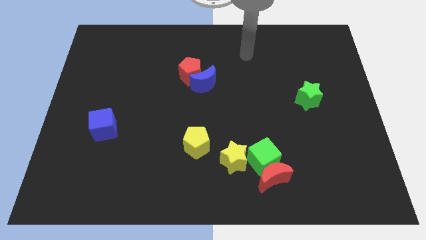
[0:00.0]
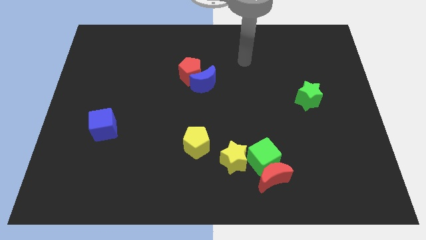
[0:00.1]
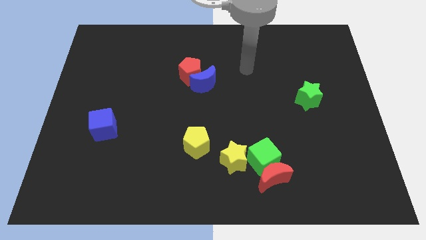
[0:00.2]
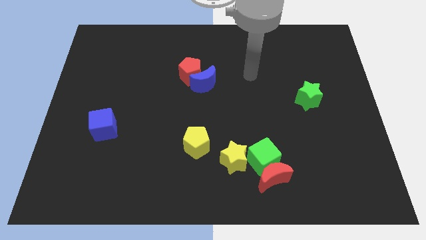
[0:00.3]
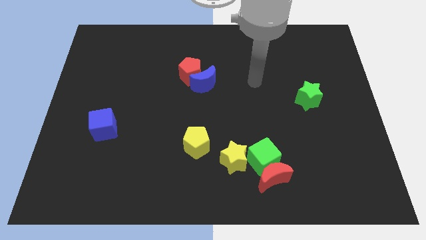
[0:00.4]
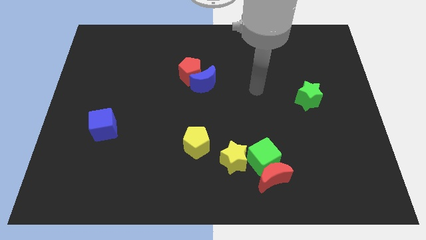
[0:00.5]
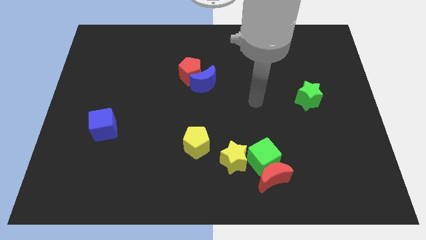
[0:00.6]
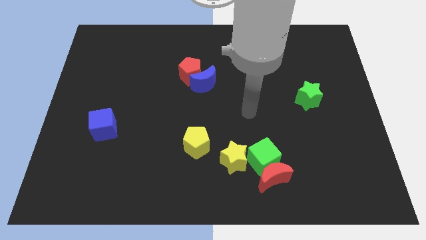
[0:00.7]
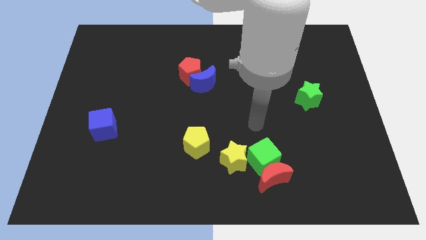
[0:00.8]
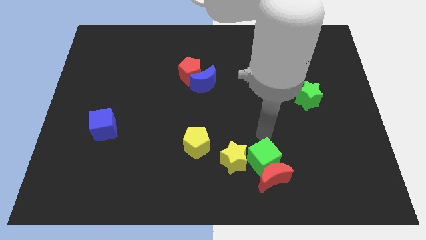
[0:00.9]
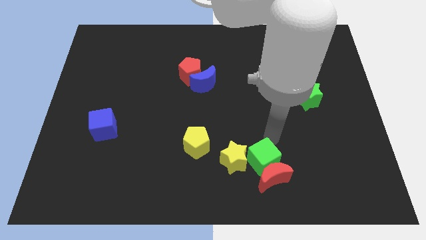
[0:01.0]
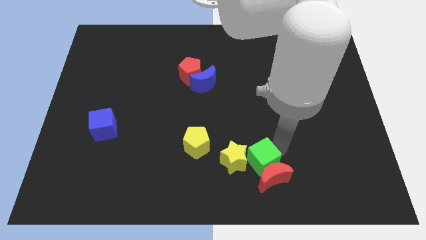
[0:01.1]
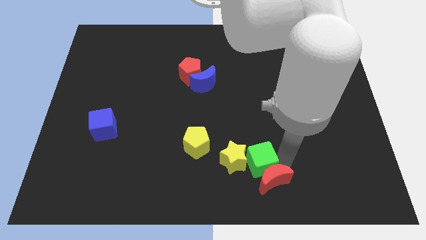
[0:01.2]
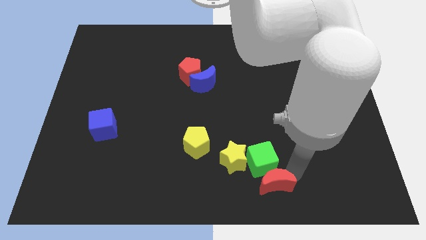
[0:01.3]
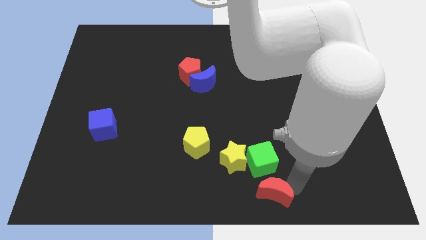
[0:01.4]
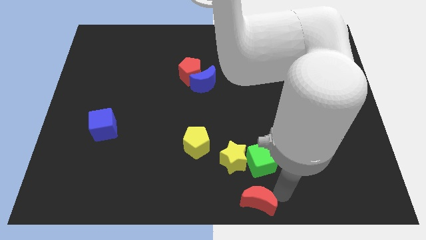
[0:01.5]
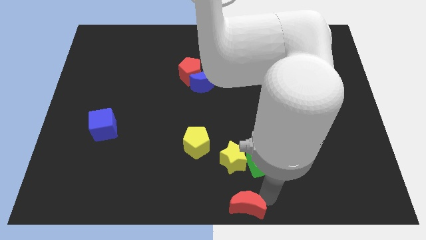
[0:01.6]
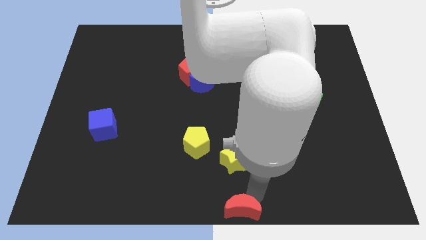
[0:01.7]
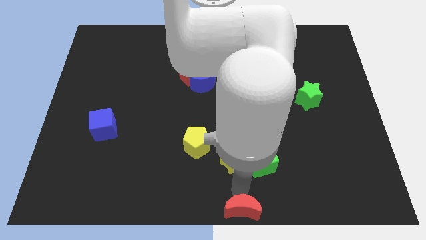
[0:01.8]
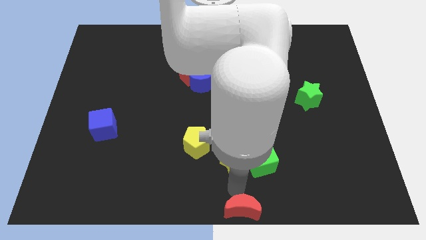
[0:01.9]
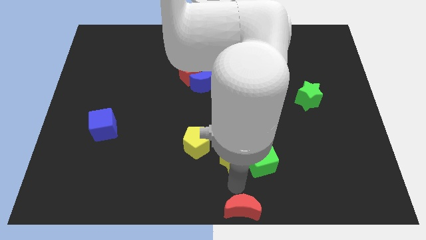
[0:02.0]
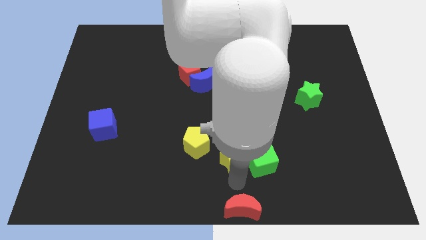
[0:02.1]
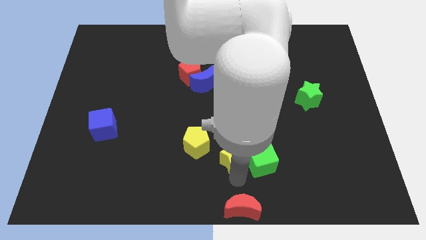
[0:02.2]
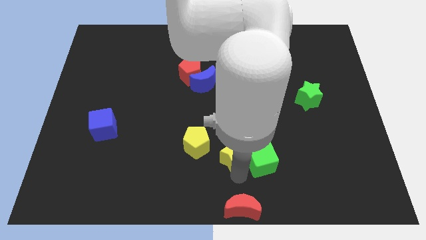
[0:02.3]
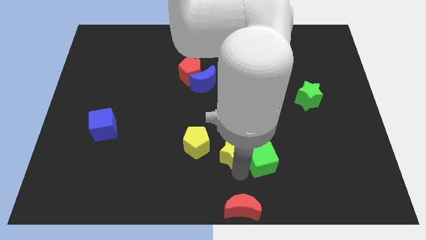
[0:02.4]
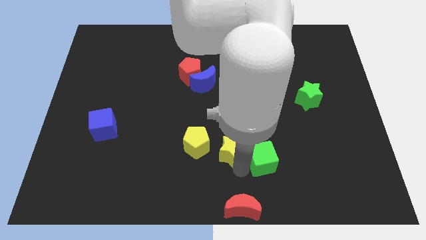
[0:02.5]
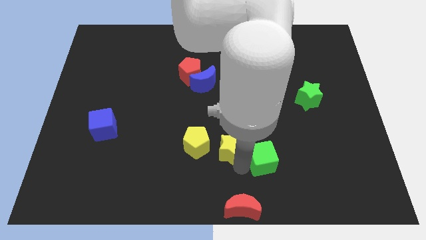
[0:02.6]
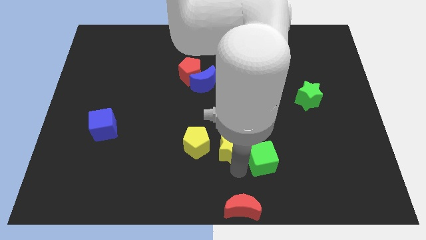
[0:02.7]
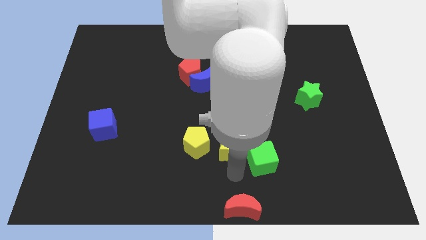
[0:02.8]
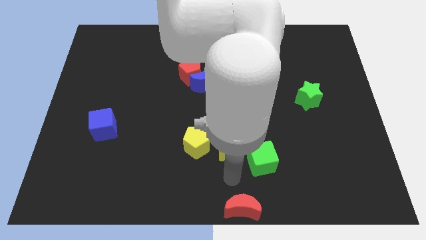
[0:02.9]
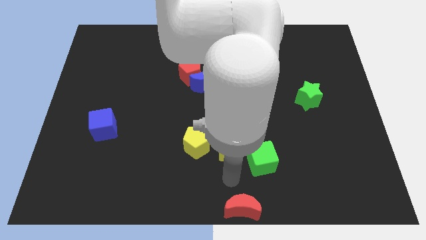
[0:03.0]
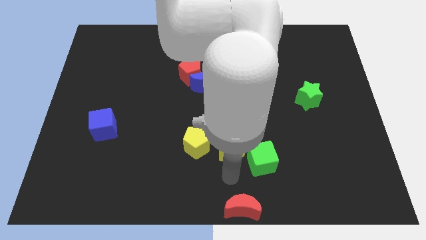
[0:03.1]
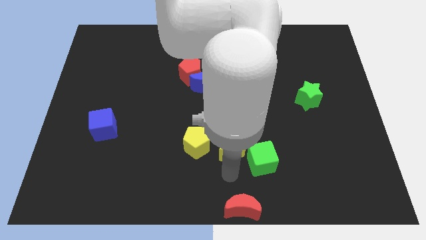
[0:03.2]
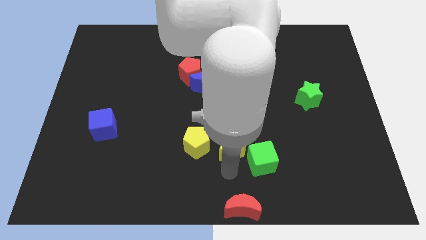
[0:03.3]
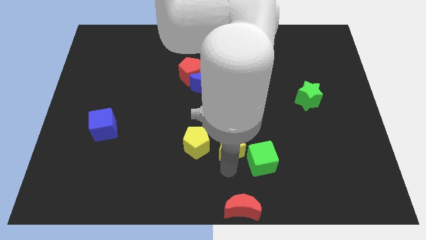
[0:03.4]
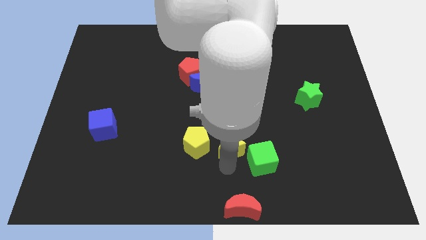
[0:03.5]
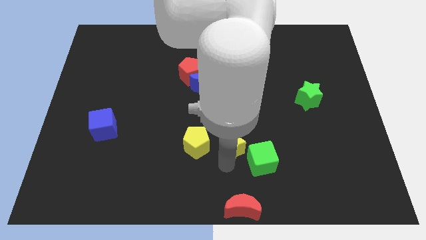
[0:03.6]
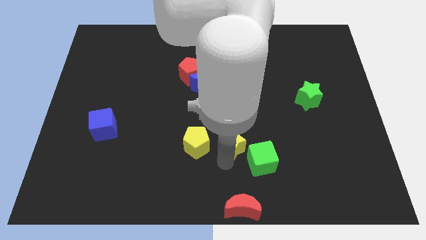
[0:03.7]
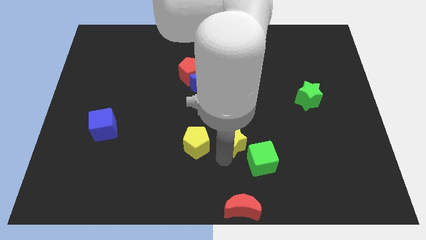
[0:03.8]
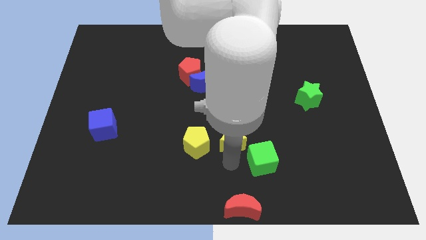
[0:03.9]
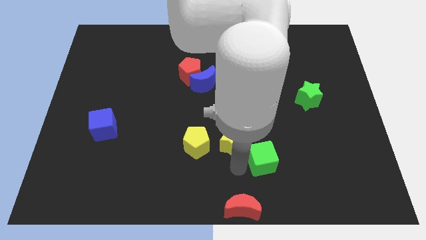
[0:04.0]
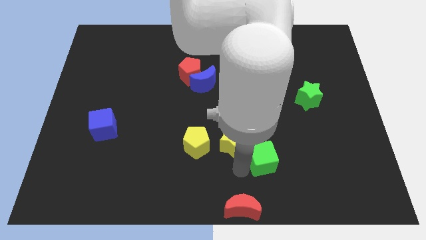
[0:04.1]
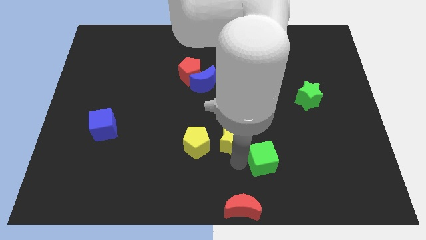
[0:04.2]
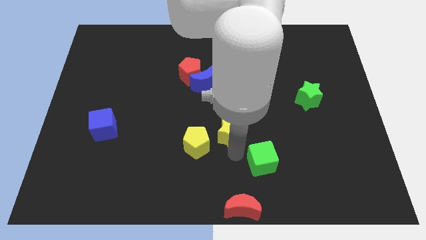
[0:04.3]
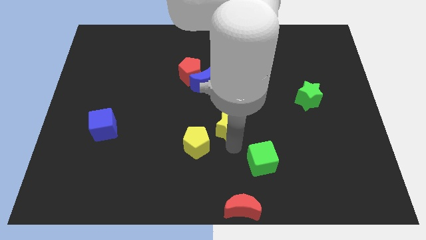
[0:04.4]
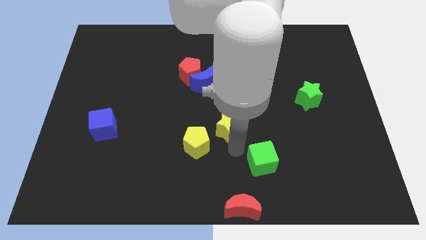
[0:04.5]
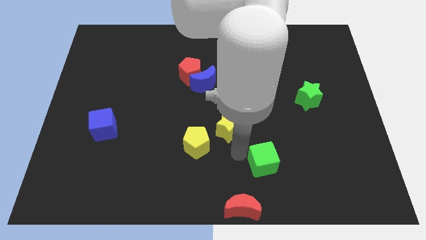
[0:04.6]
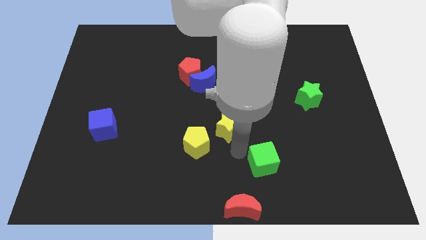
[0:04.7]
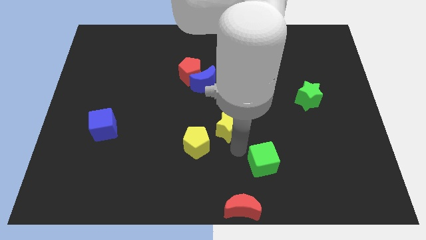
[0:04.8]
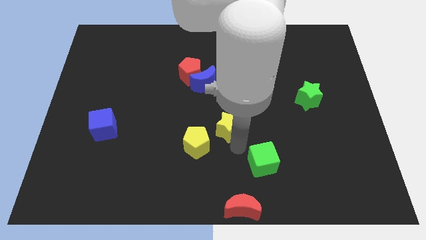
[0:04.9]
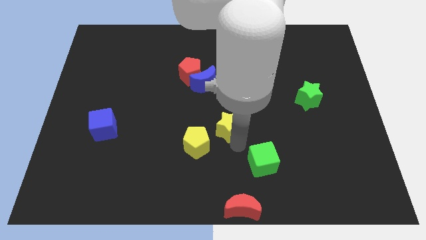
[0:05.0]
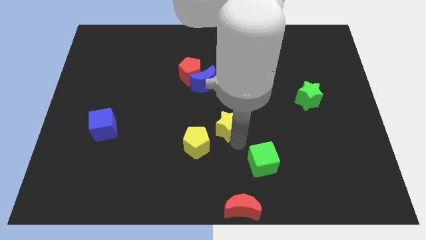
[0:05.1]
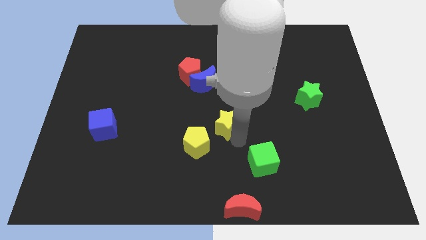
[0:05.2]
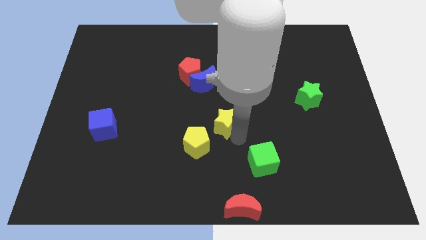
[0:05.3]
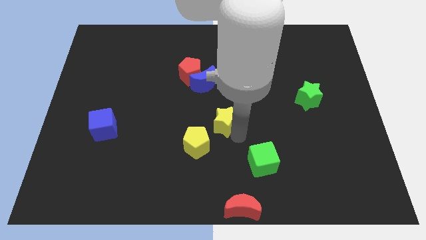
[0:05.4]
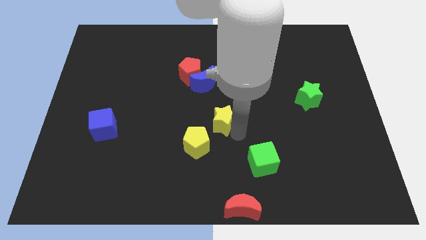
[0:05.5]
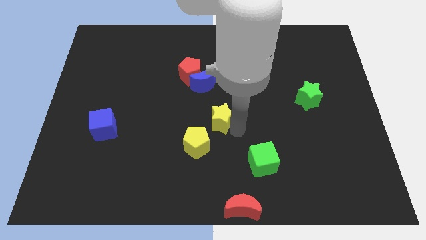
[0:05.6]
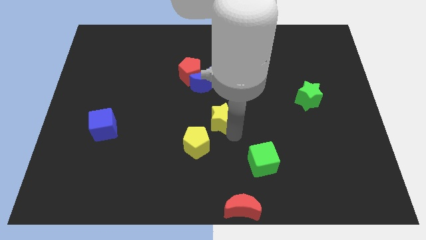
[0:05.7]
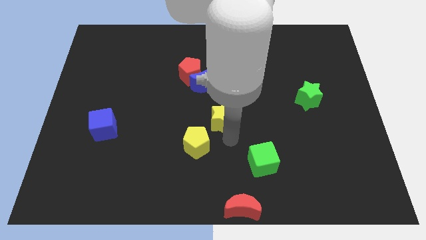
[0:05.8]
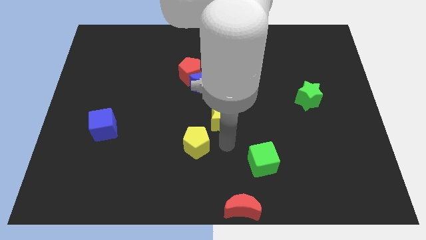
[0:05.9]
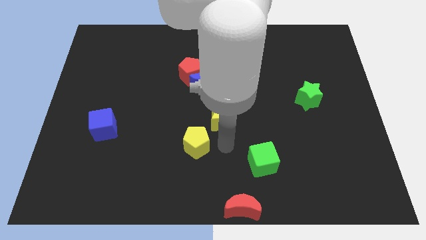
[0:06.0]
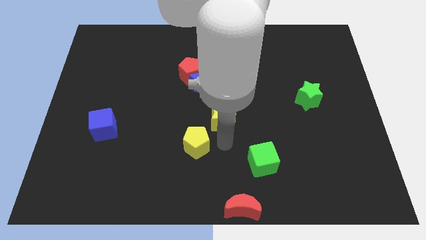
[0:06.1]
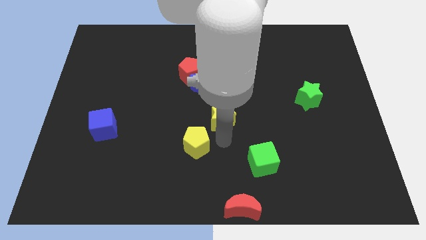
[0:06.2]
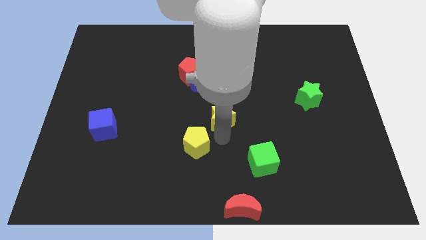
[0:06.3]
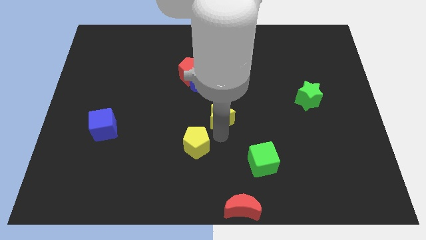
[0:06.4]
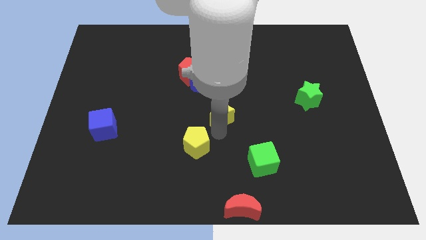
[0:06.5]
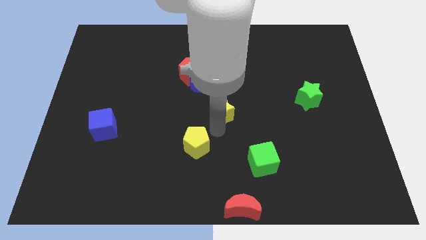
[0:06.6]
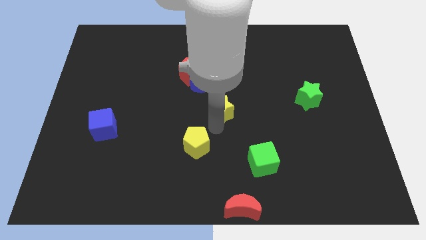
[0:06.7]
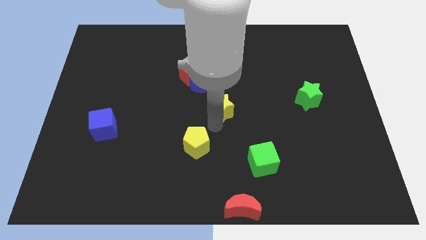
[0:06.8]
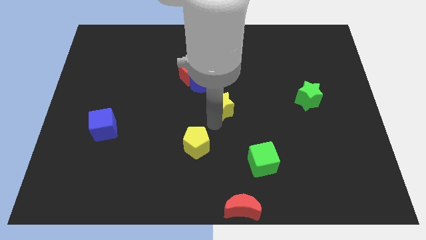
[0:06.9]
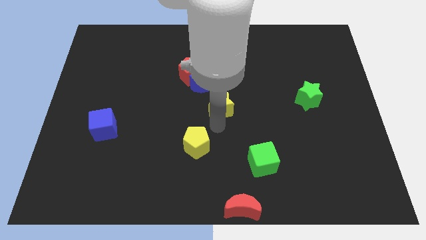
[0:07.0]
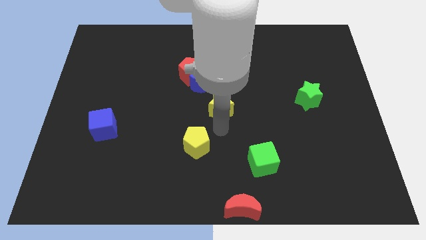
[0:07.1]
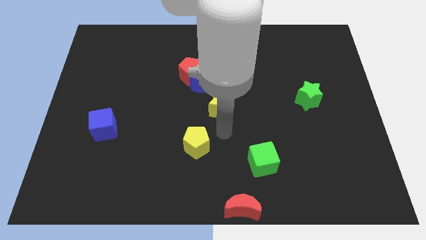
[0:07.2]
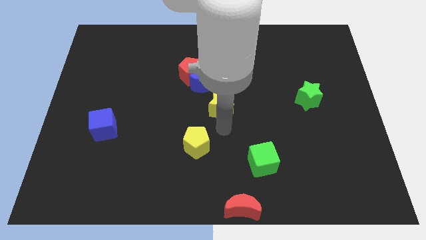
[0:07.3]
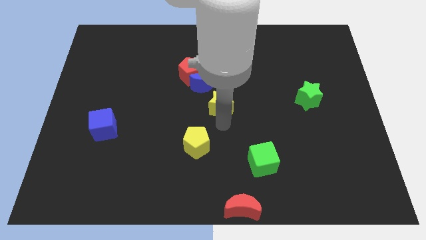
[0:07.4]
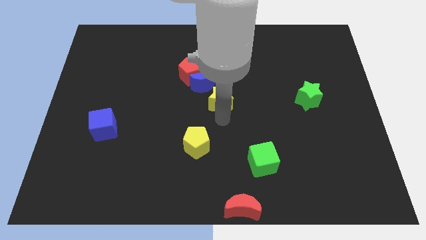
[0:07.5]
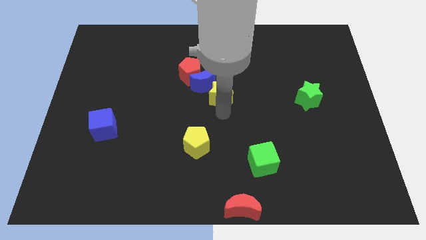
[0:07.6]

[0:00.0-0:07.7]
put the yellow star next to the blue moon
